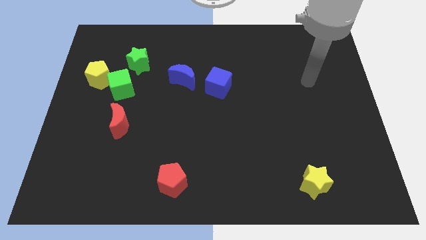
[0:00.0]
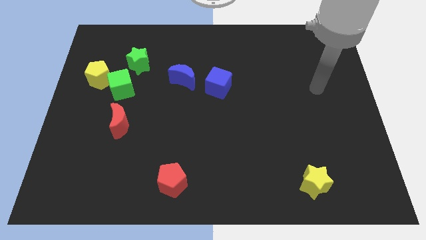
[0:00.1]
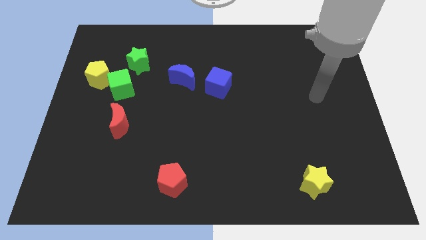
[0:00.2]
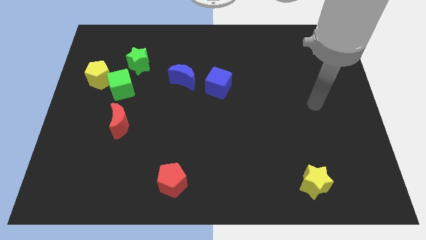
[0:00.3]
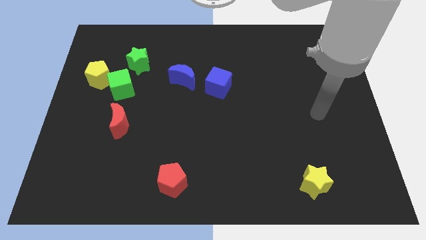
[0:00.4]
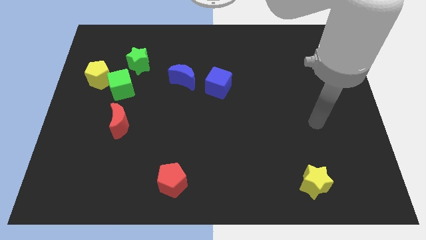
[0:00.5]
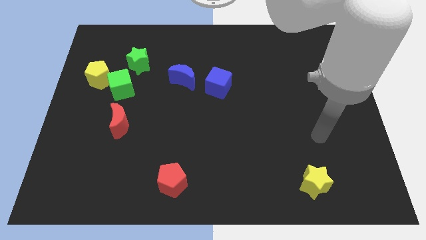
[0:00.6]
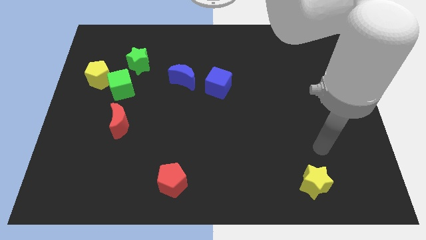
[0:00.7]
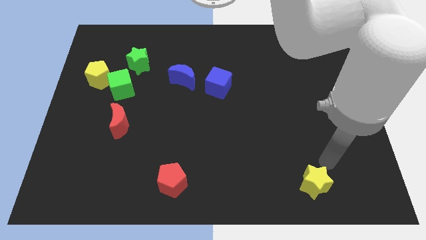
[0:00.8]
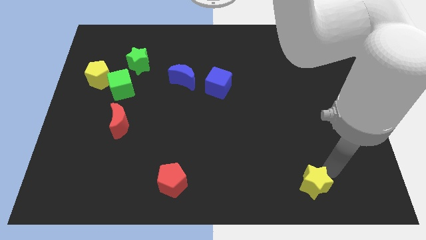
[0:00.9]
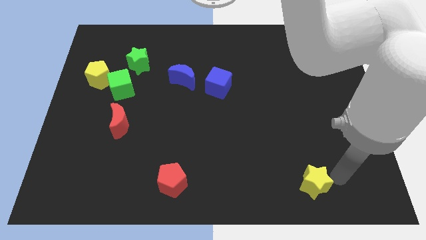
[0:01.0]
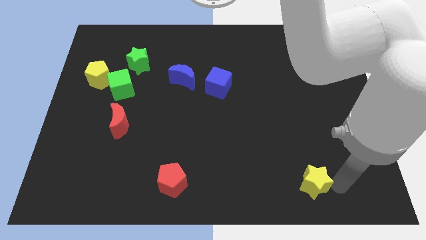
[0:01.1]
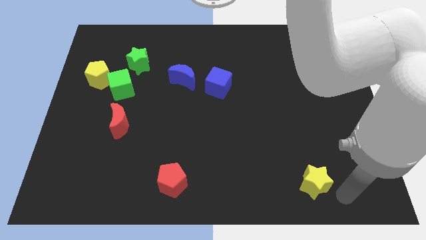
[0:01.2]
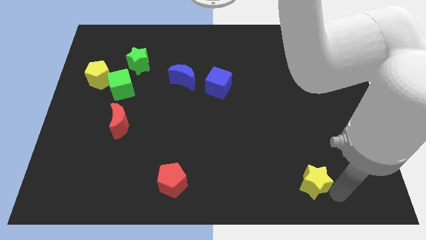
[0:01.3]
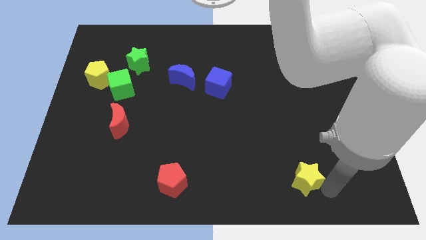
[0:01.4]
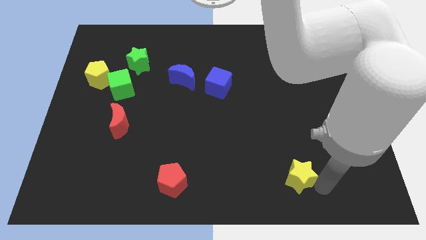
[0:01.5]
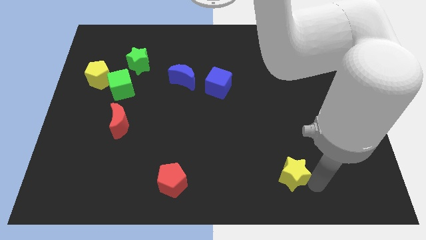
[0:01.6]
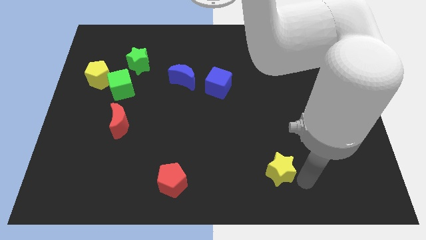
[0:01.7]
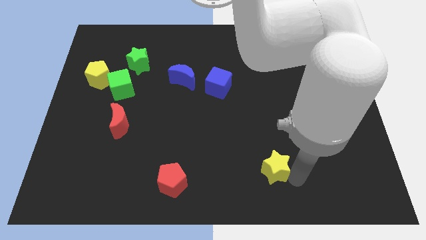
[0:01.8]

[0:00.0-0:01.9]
move the yellow star upwards and left diagonally somewhat

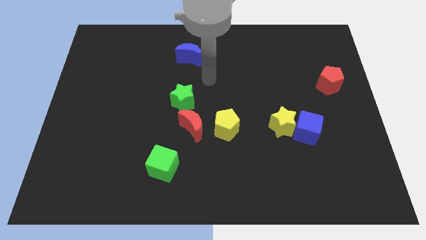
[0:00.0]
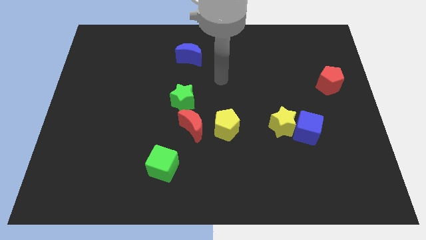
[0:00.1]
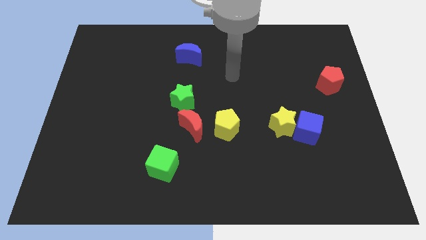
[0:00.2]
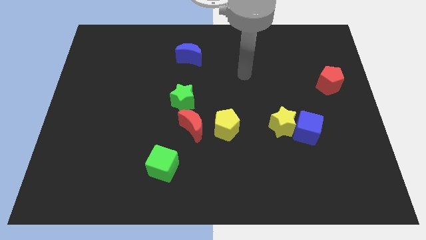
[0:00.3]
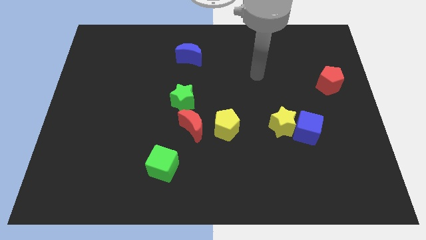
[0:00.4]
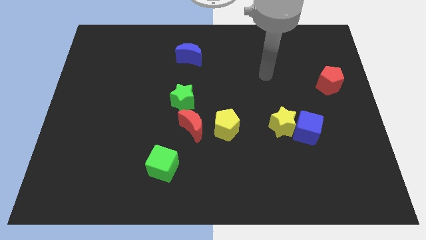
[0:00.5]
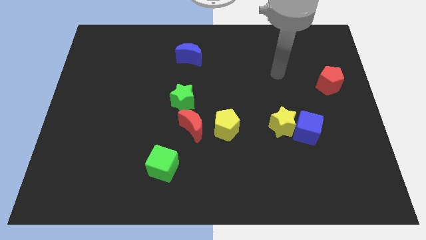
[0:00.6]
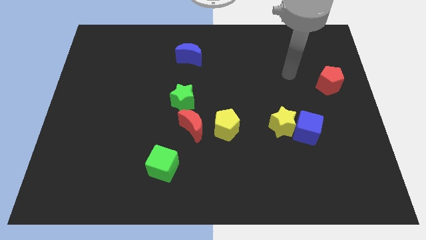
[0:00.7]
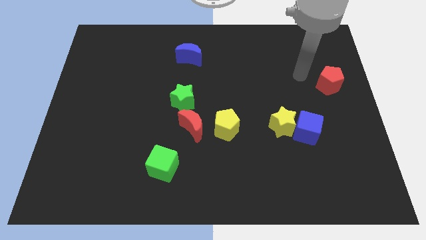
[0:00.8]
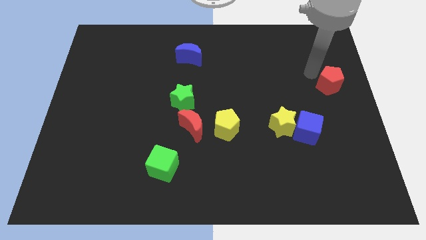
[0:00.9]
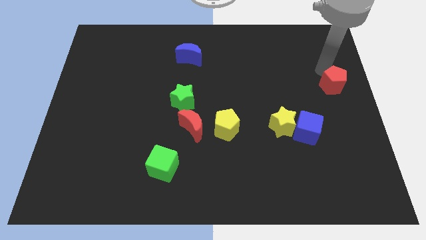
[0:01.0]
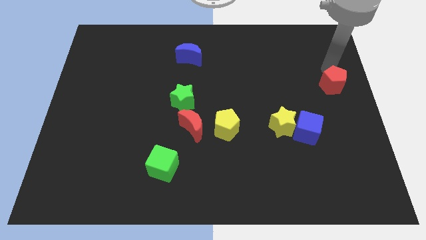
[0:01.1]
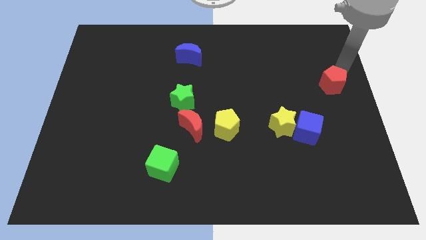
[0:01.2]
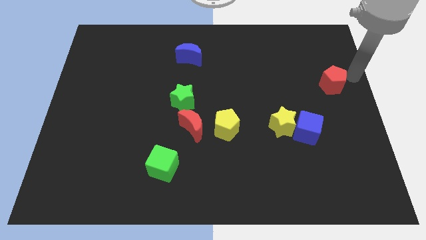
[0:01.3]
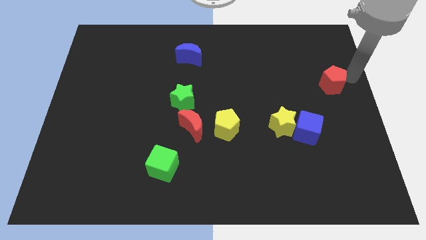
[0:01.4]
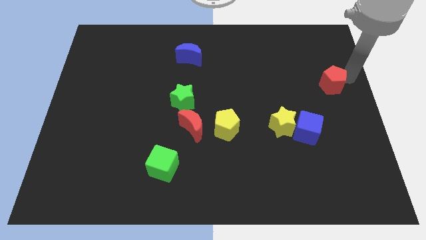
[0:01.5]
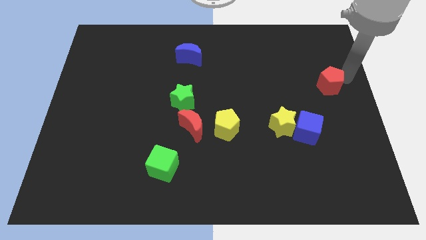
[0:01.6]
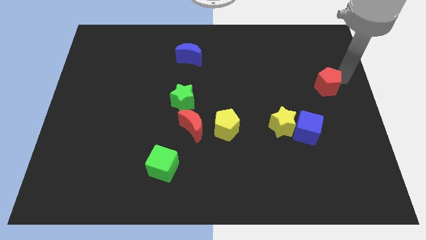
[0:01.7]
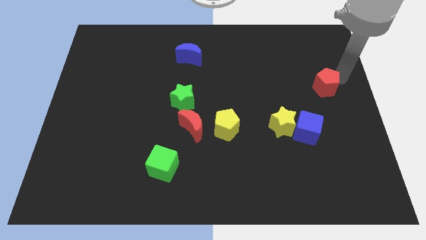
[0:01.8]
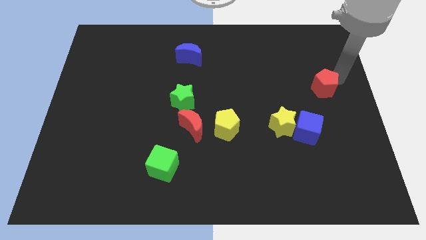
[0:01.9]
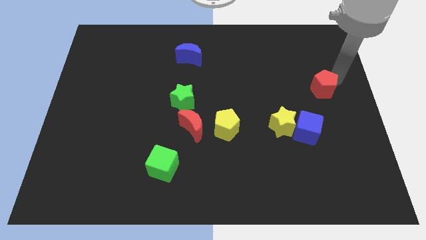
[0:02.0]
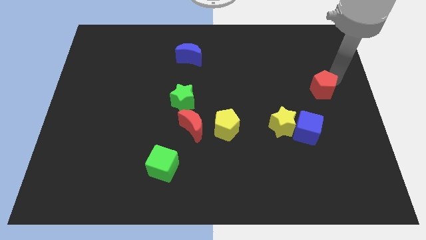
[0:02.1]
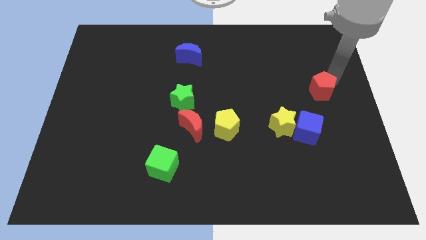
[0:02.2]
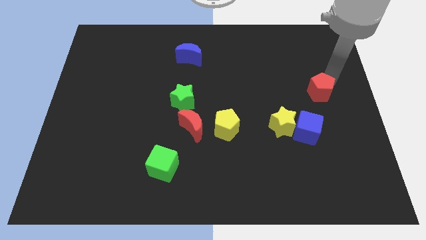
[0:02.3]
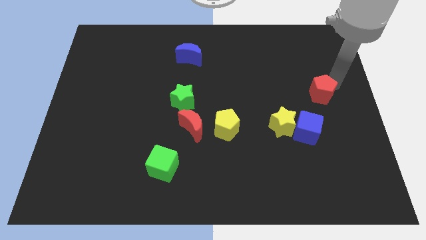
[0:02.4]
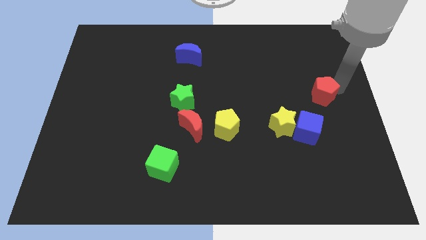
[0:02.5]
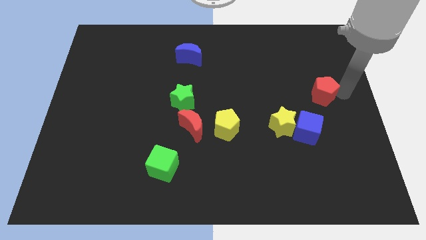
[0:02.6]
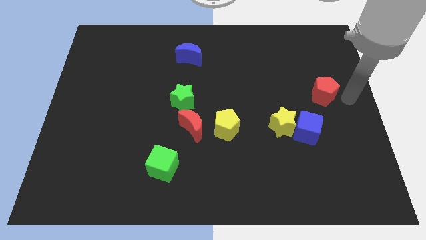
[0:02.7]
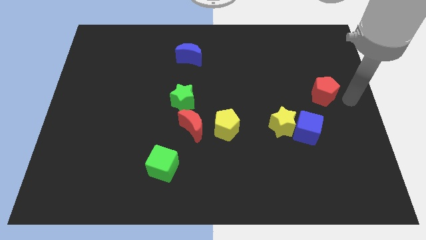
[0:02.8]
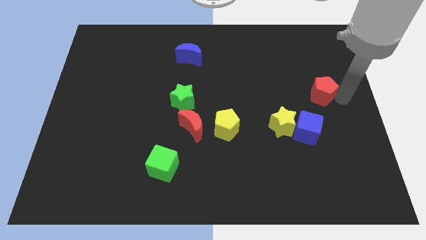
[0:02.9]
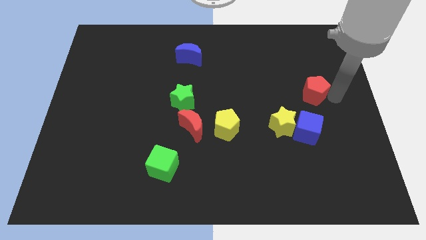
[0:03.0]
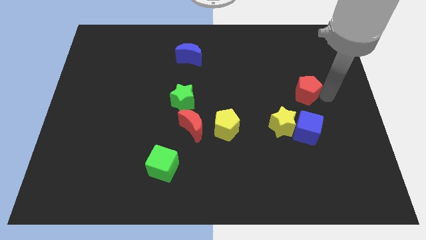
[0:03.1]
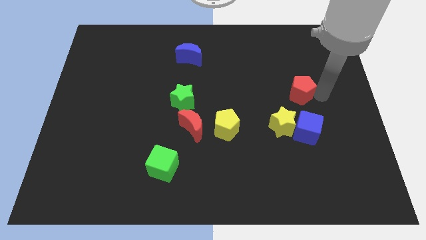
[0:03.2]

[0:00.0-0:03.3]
slide the red pentagon left a little

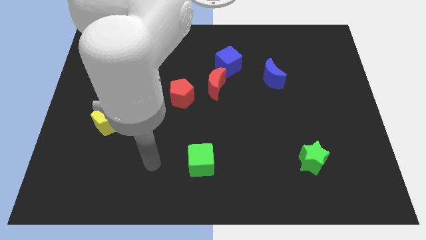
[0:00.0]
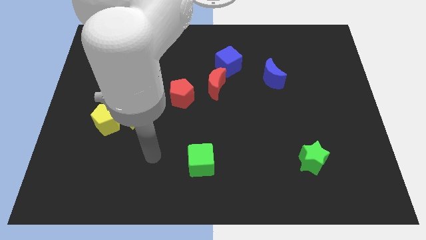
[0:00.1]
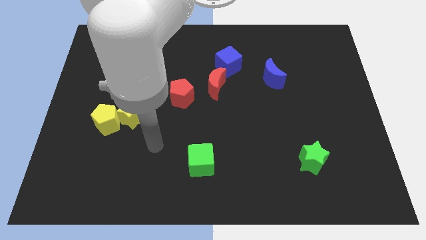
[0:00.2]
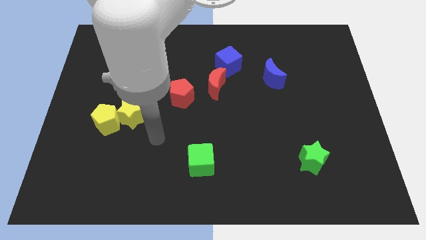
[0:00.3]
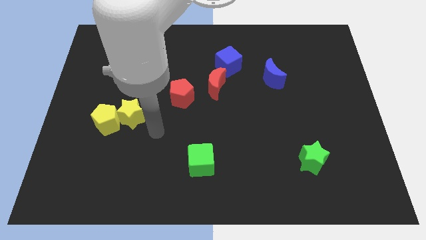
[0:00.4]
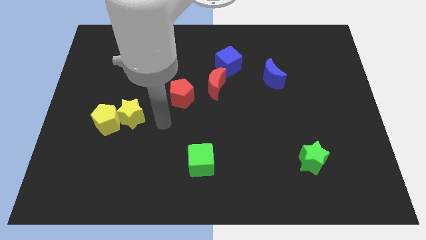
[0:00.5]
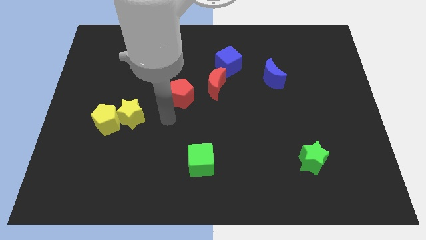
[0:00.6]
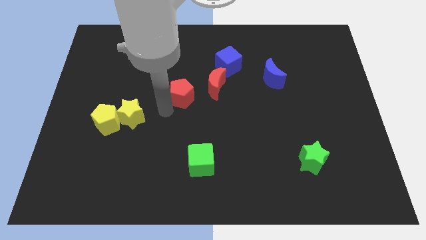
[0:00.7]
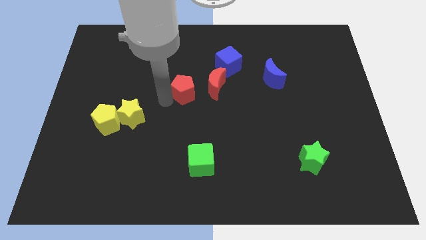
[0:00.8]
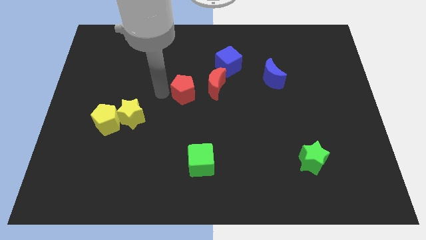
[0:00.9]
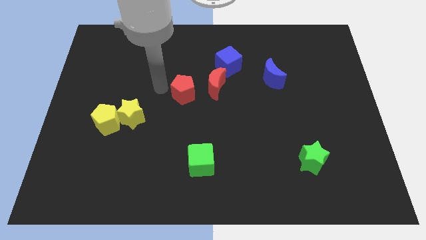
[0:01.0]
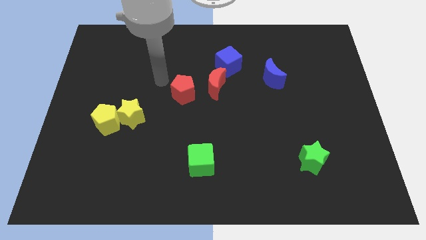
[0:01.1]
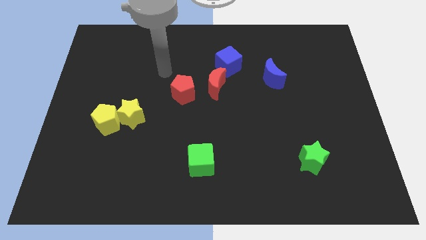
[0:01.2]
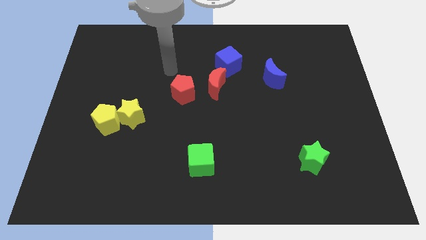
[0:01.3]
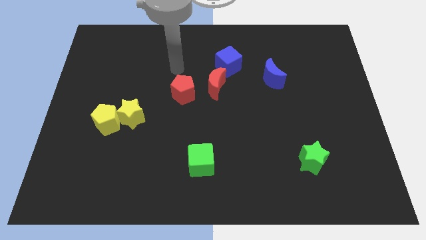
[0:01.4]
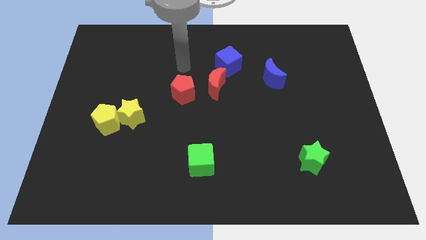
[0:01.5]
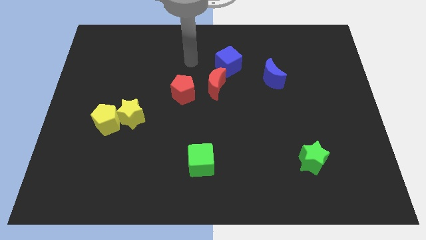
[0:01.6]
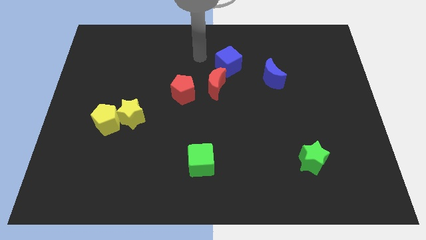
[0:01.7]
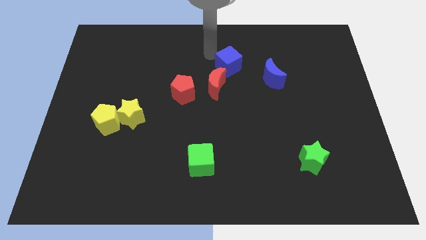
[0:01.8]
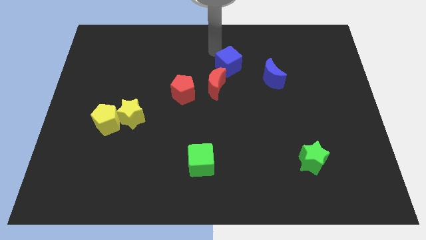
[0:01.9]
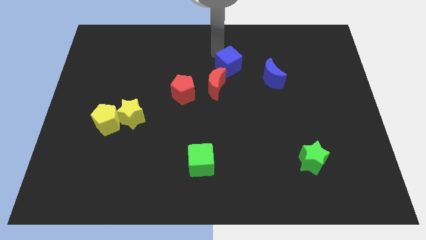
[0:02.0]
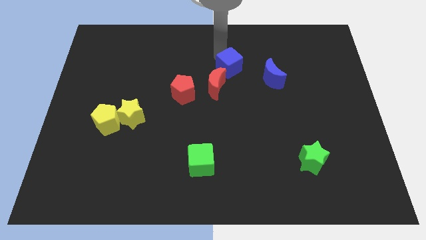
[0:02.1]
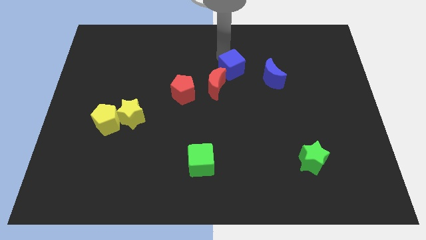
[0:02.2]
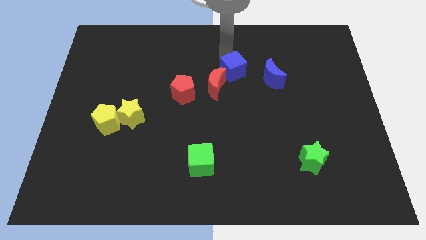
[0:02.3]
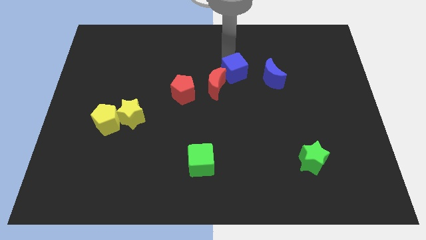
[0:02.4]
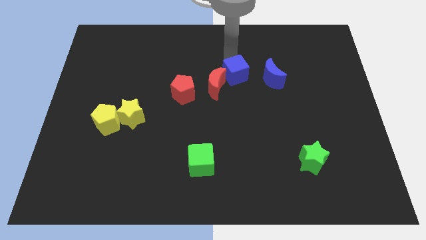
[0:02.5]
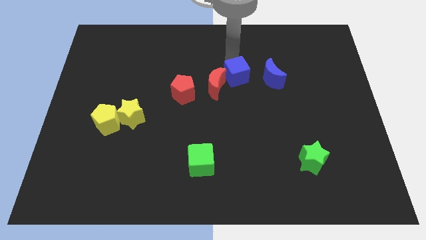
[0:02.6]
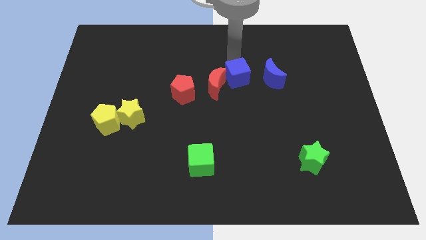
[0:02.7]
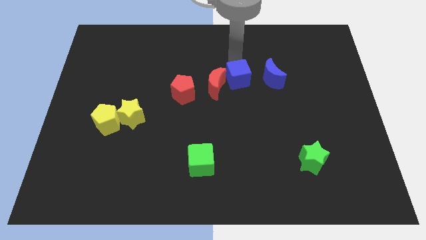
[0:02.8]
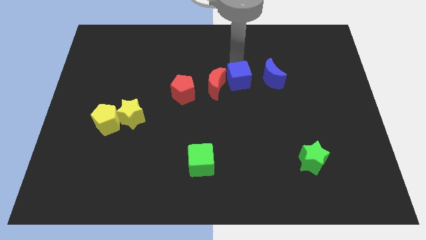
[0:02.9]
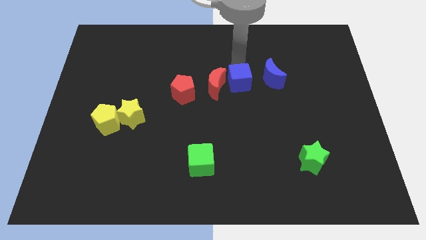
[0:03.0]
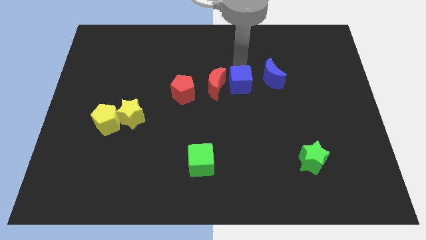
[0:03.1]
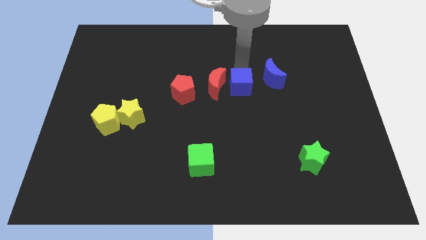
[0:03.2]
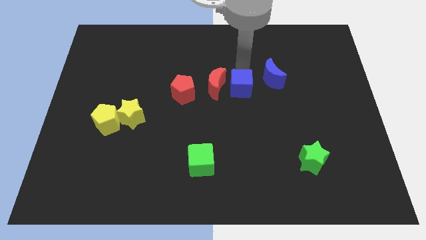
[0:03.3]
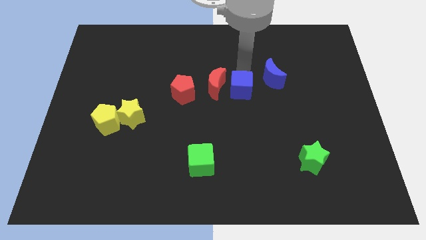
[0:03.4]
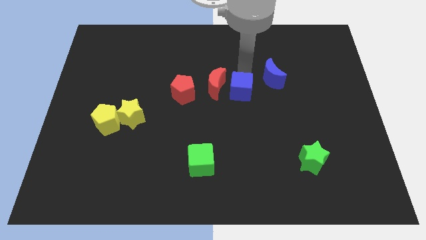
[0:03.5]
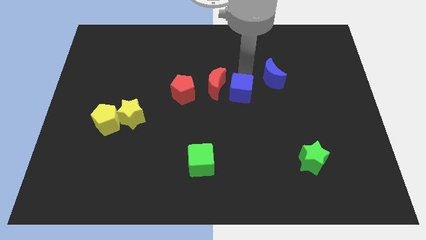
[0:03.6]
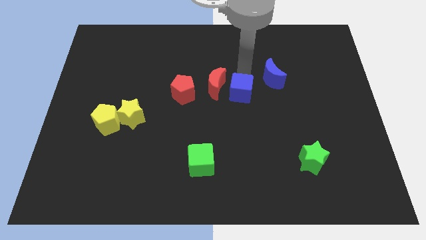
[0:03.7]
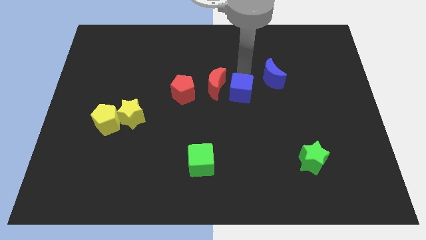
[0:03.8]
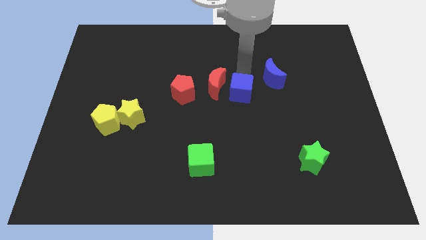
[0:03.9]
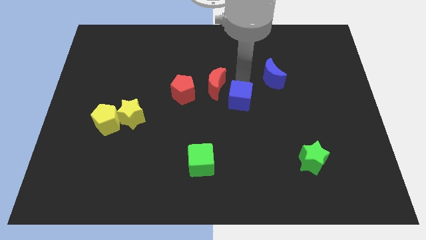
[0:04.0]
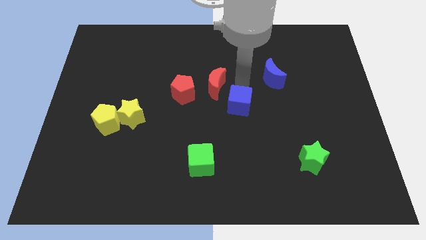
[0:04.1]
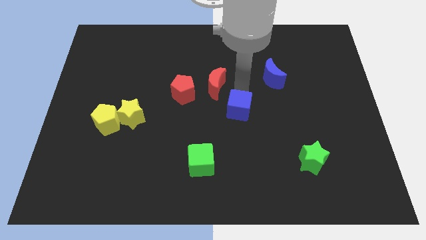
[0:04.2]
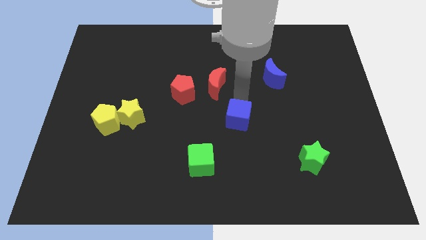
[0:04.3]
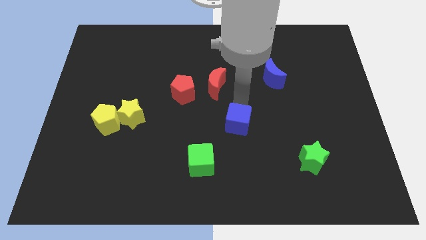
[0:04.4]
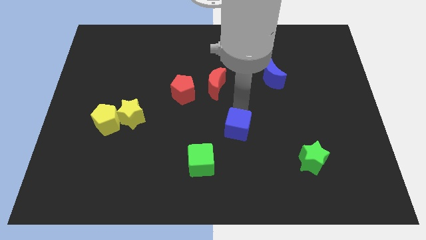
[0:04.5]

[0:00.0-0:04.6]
slide the blue cube down
